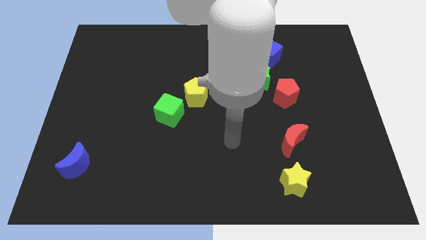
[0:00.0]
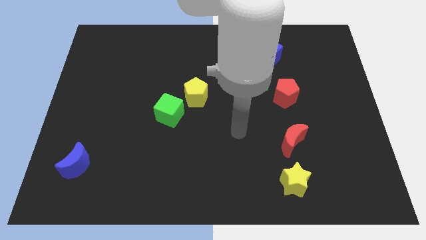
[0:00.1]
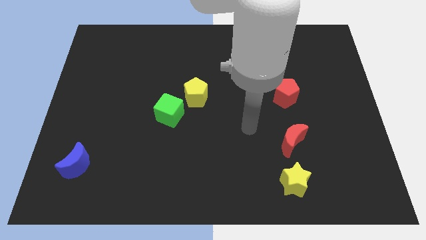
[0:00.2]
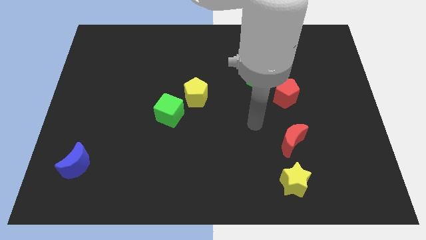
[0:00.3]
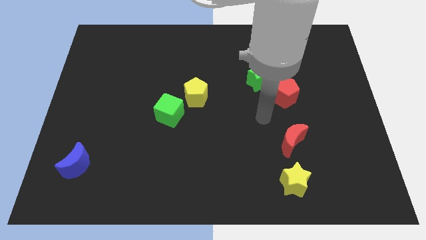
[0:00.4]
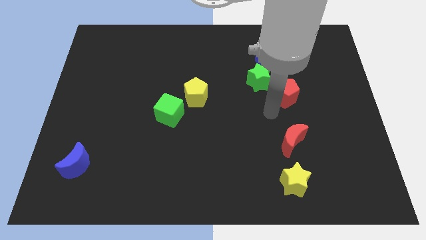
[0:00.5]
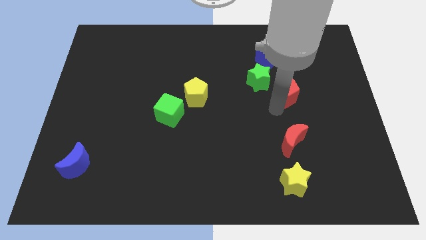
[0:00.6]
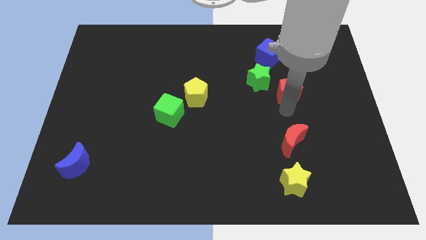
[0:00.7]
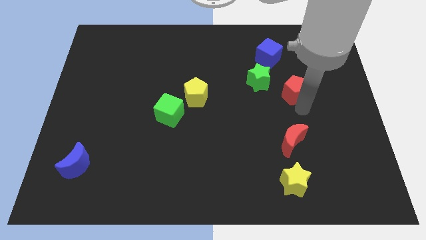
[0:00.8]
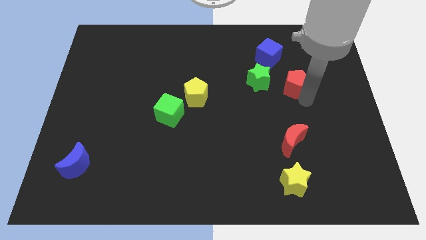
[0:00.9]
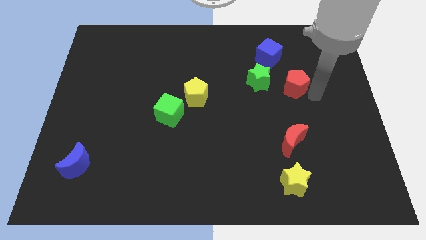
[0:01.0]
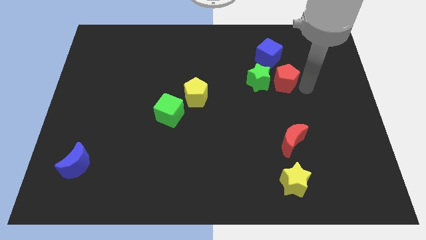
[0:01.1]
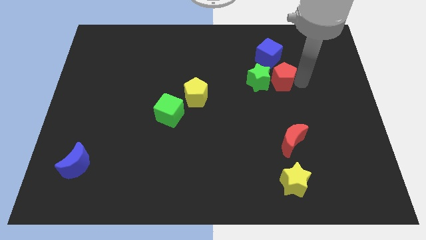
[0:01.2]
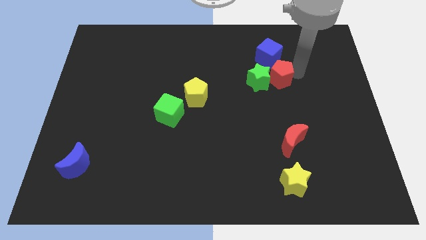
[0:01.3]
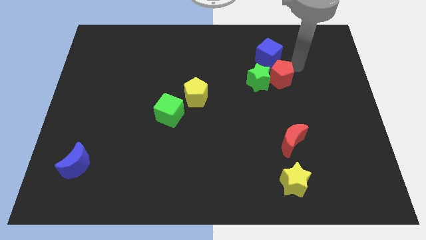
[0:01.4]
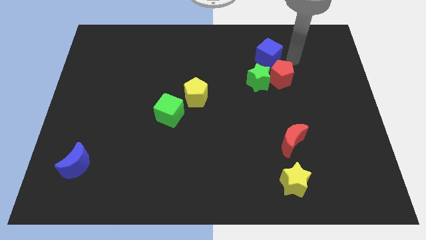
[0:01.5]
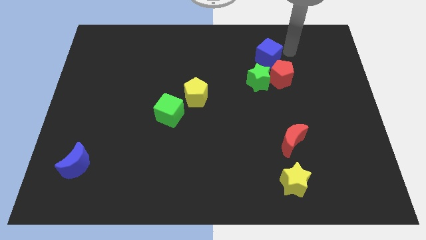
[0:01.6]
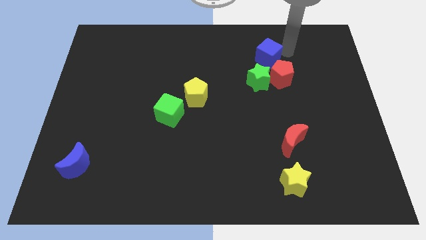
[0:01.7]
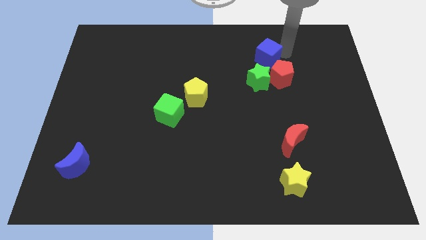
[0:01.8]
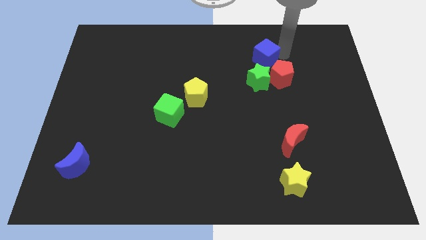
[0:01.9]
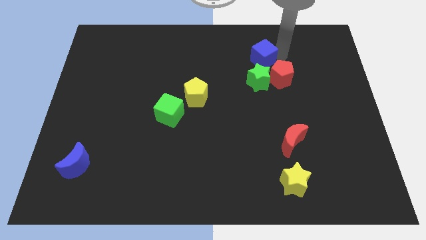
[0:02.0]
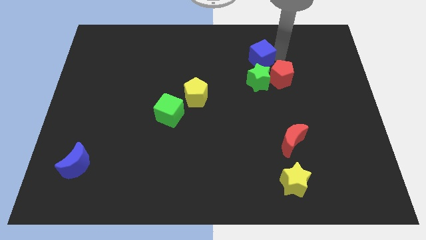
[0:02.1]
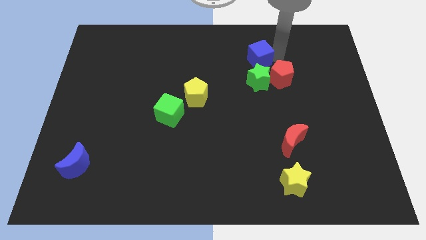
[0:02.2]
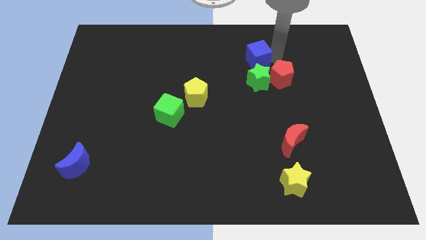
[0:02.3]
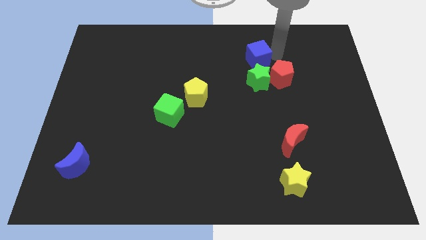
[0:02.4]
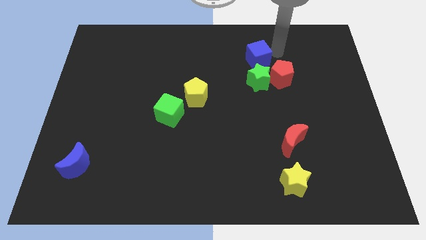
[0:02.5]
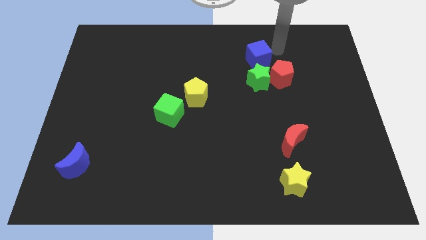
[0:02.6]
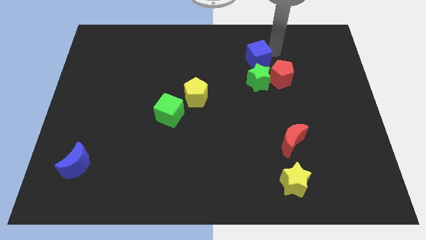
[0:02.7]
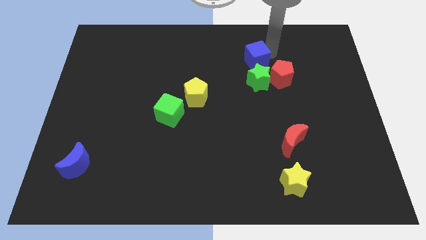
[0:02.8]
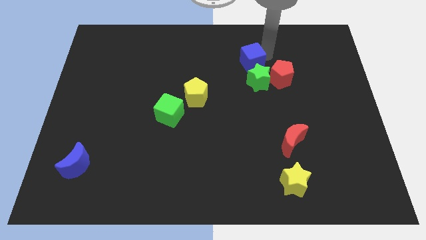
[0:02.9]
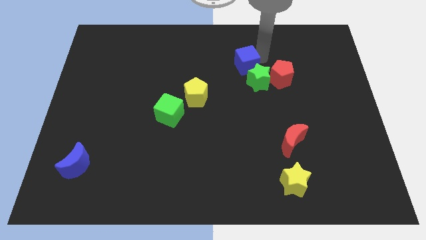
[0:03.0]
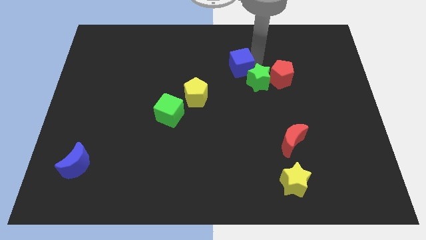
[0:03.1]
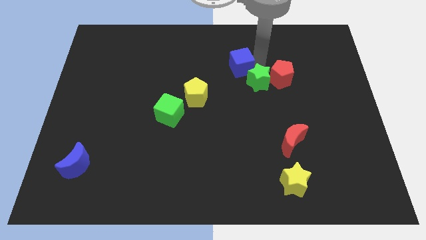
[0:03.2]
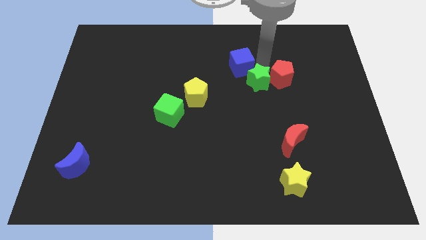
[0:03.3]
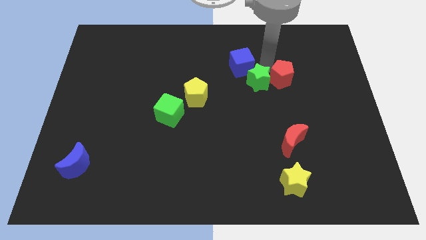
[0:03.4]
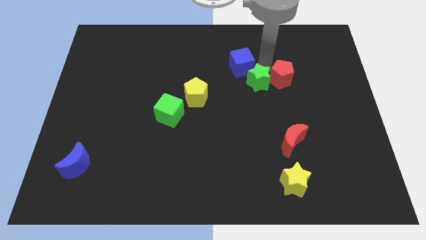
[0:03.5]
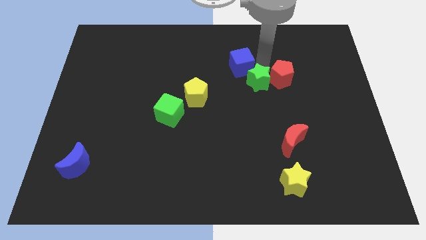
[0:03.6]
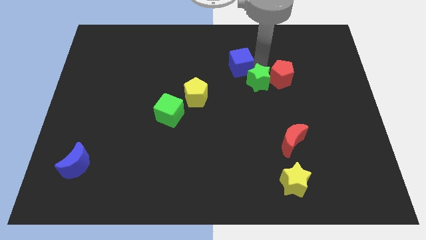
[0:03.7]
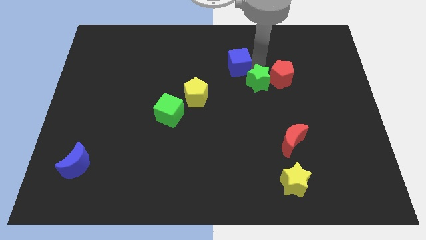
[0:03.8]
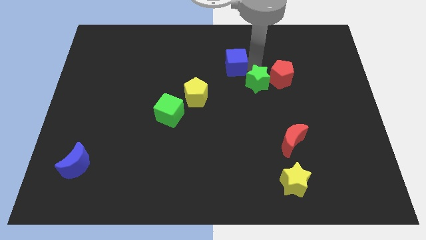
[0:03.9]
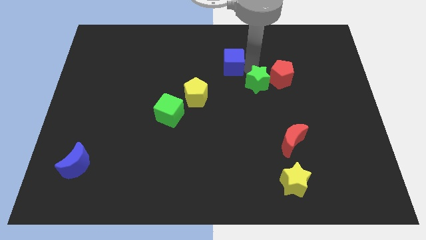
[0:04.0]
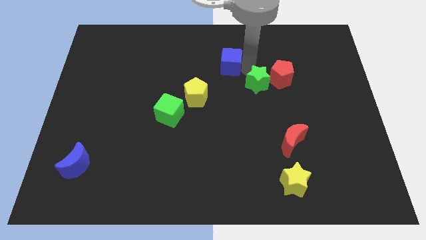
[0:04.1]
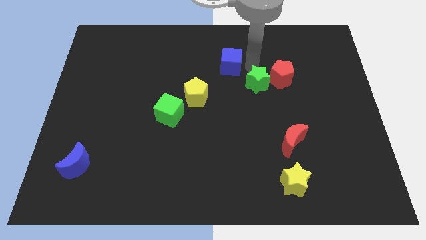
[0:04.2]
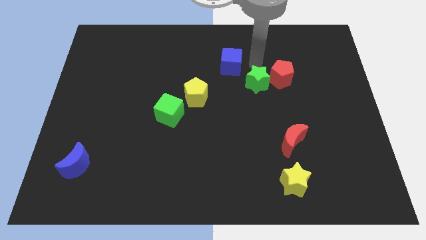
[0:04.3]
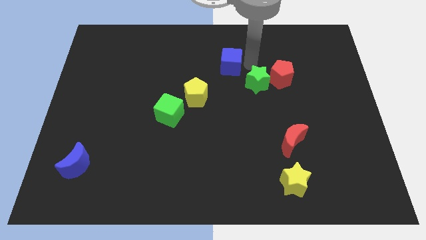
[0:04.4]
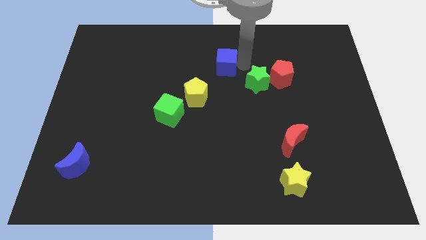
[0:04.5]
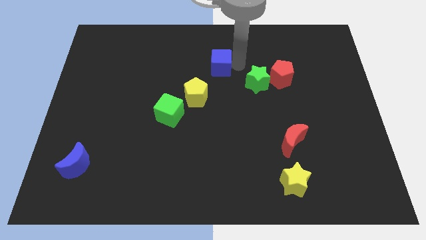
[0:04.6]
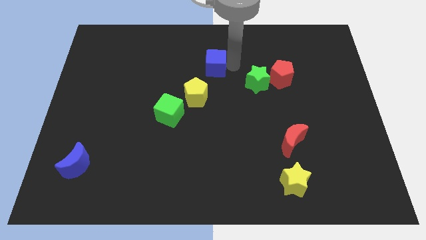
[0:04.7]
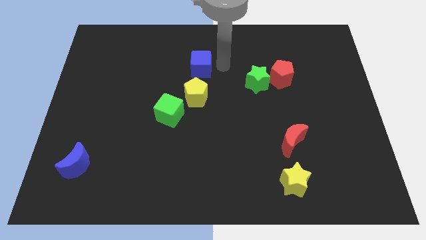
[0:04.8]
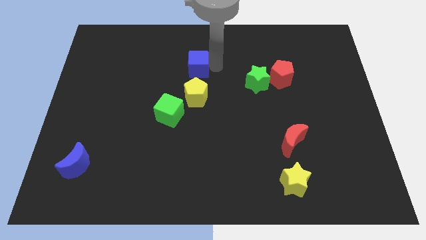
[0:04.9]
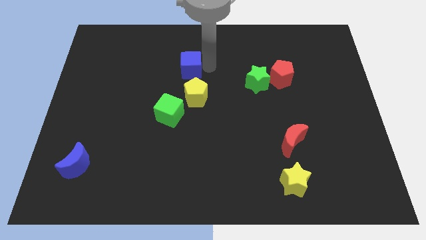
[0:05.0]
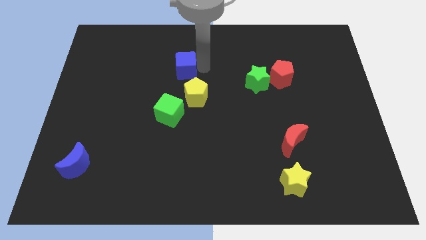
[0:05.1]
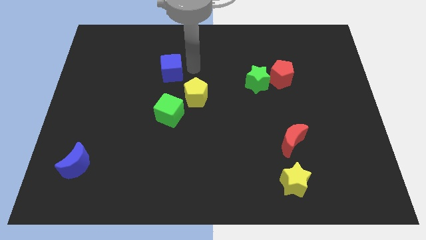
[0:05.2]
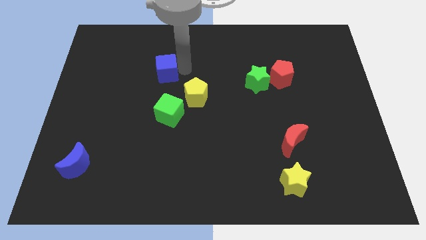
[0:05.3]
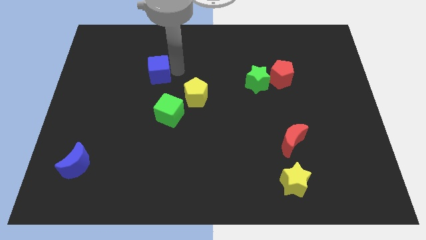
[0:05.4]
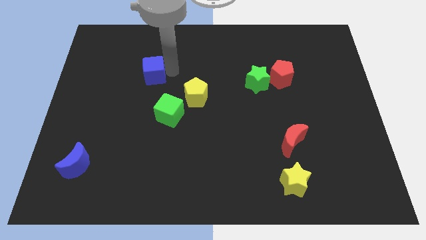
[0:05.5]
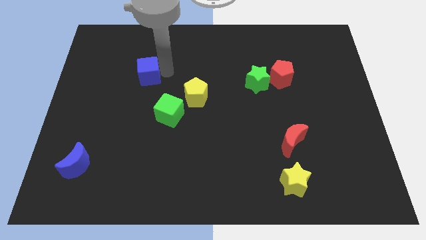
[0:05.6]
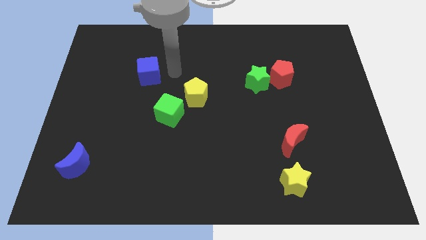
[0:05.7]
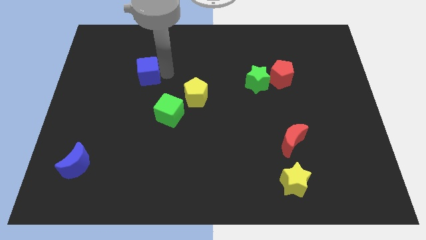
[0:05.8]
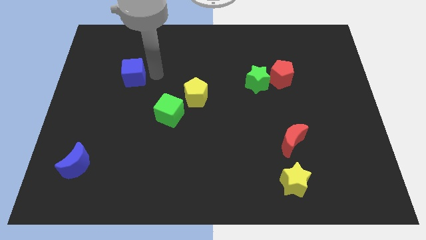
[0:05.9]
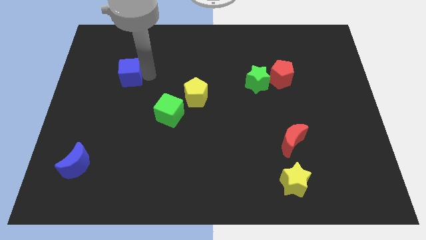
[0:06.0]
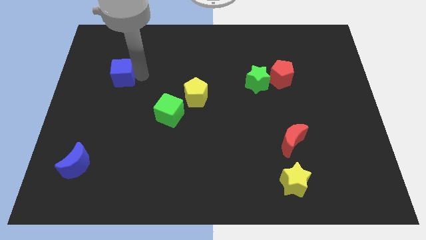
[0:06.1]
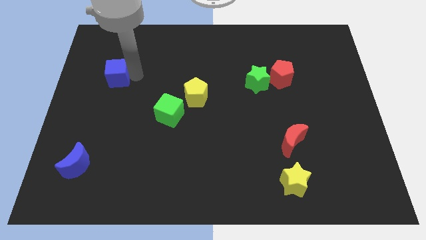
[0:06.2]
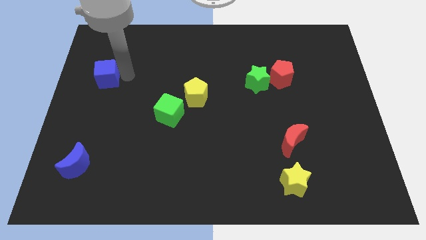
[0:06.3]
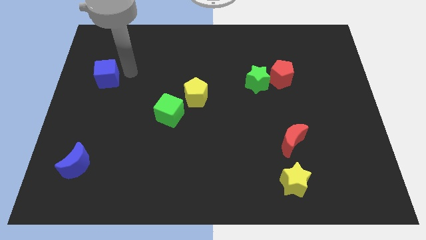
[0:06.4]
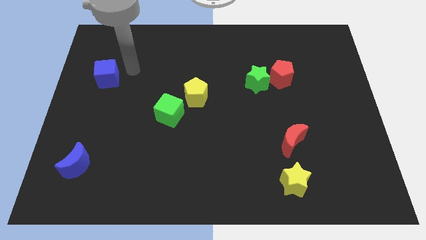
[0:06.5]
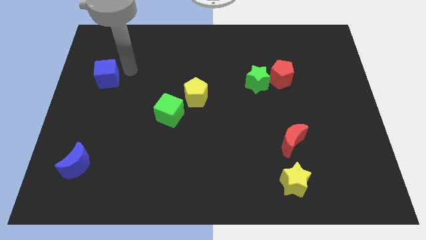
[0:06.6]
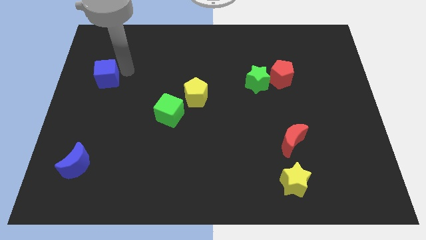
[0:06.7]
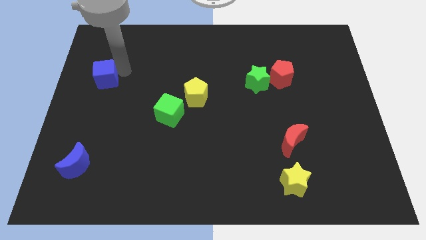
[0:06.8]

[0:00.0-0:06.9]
slide the blue cube to the center left
